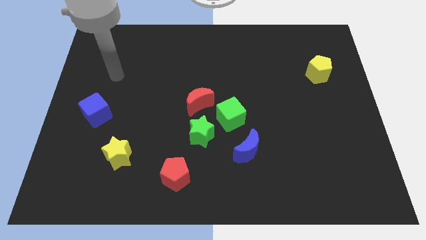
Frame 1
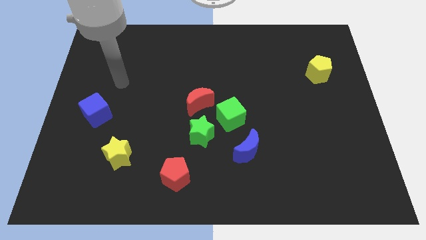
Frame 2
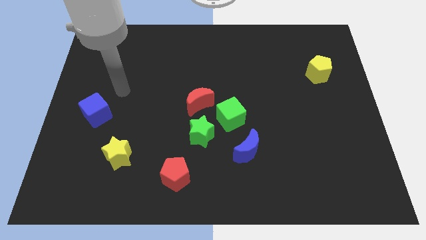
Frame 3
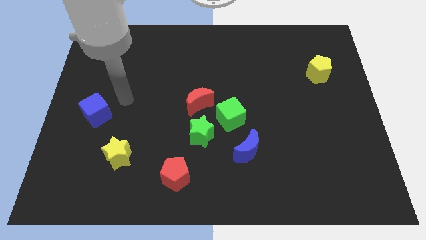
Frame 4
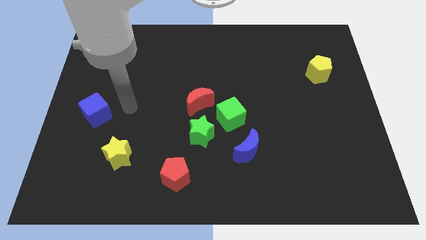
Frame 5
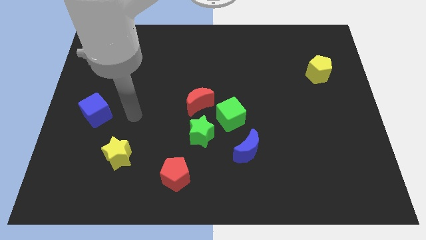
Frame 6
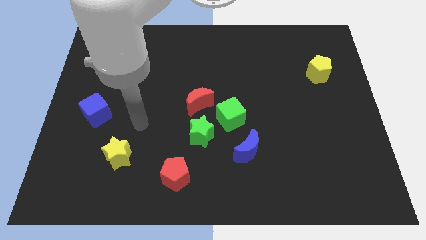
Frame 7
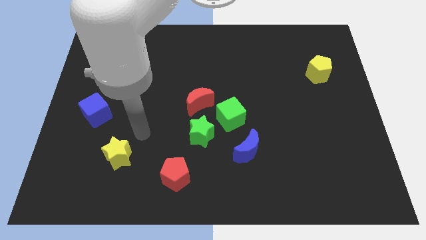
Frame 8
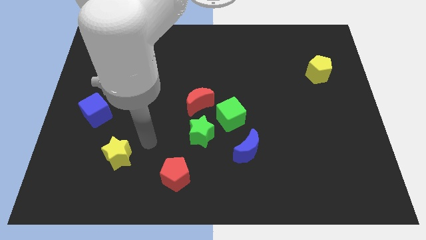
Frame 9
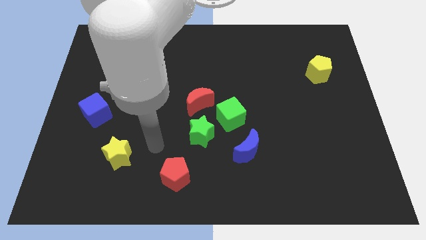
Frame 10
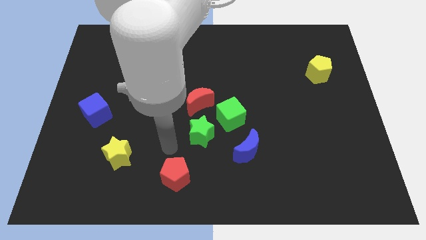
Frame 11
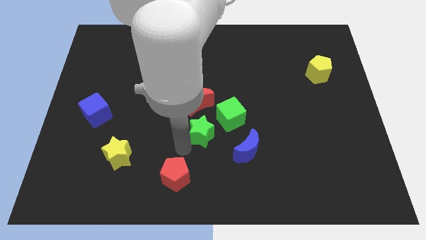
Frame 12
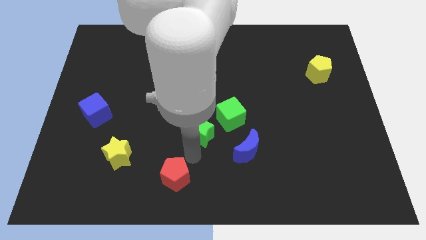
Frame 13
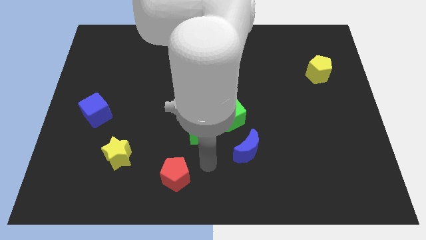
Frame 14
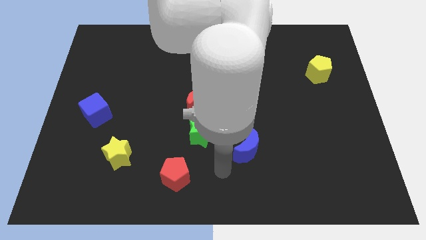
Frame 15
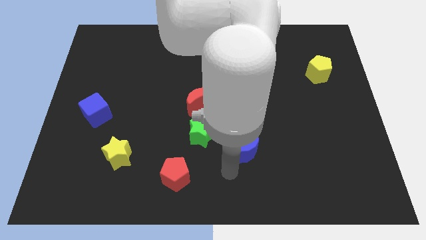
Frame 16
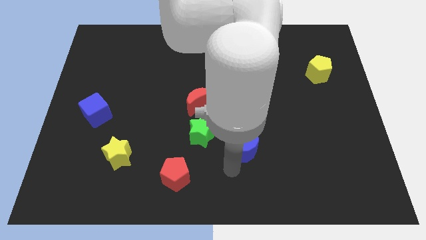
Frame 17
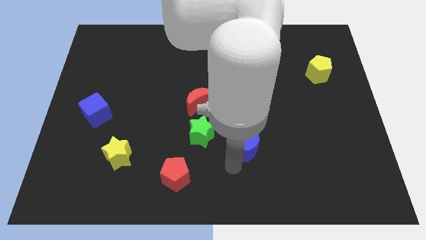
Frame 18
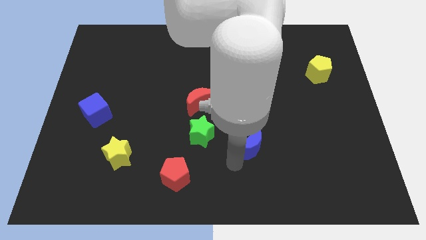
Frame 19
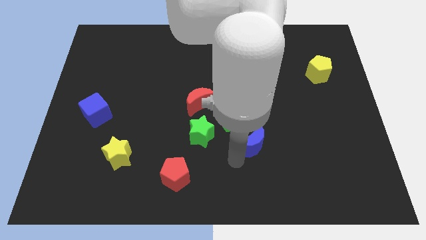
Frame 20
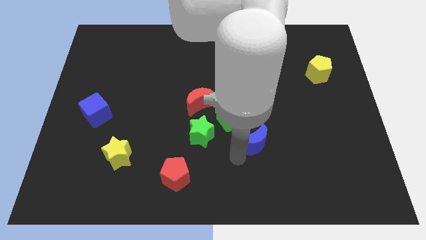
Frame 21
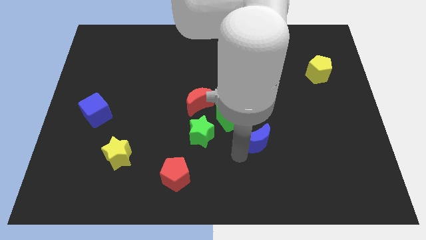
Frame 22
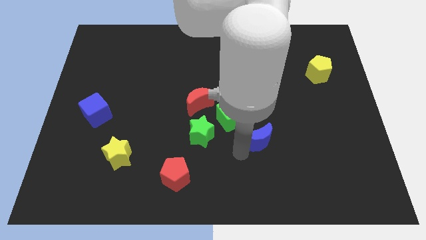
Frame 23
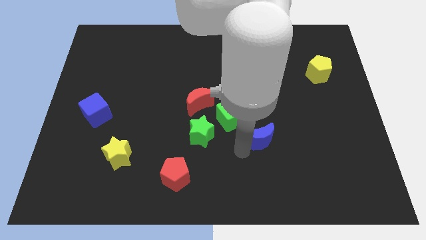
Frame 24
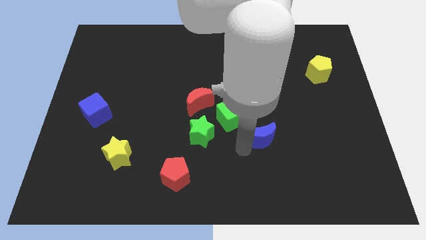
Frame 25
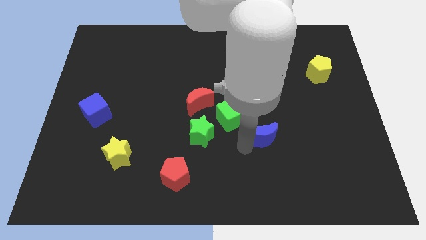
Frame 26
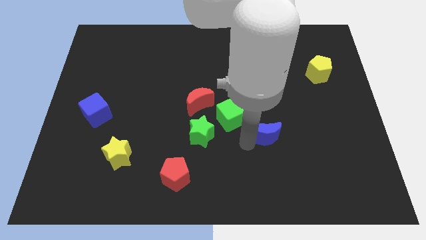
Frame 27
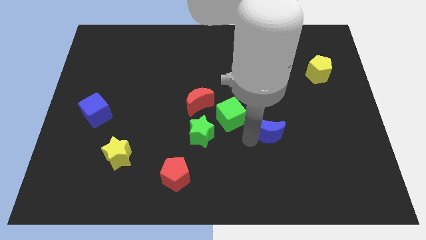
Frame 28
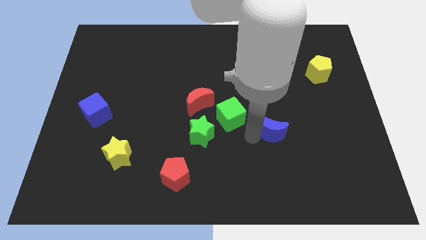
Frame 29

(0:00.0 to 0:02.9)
slide the blue moon a little bit up and to the right diagonally

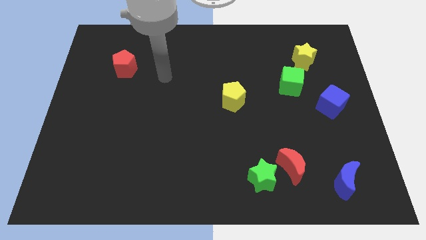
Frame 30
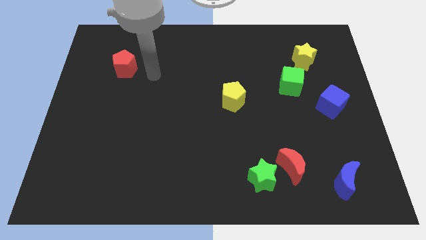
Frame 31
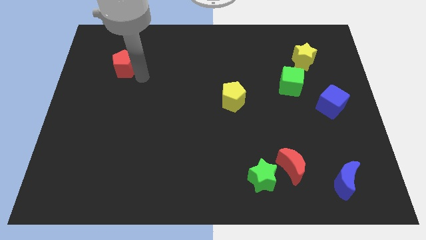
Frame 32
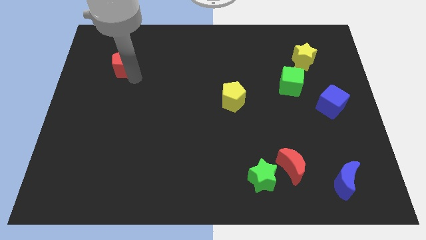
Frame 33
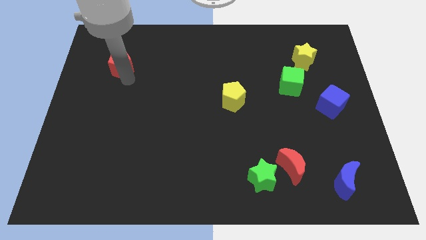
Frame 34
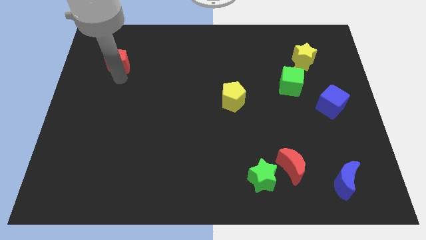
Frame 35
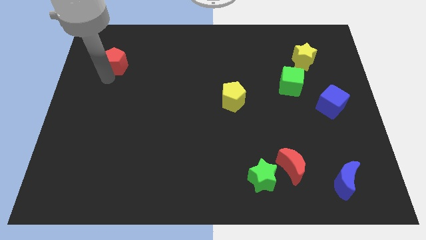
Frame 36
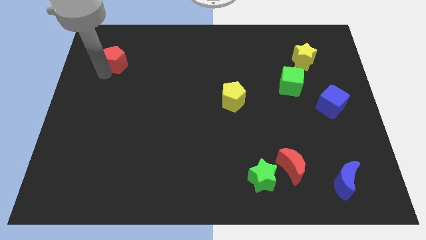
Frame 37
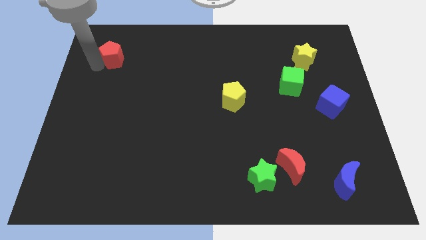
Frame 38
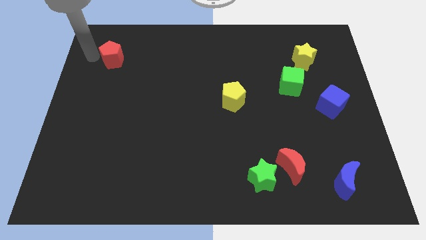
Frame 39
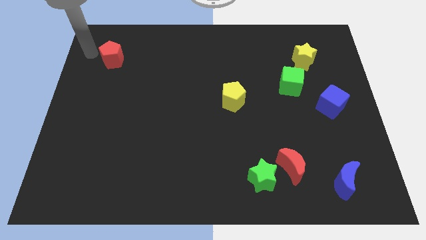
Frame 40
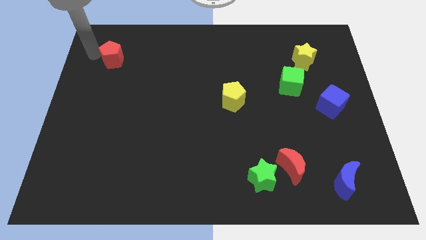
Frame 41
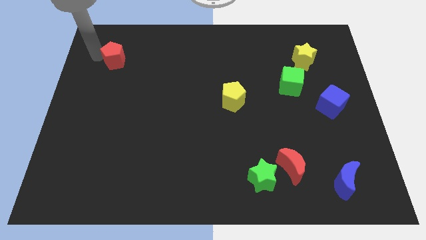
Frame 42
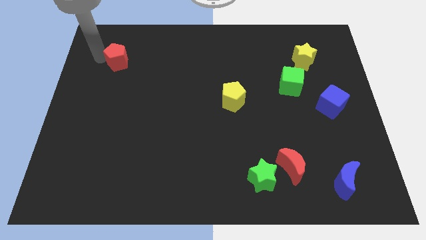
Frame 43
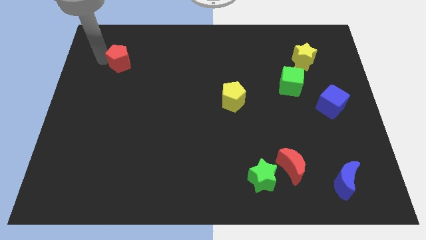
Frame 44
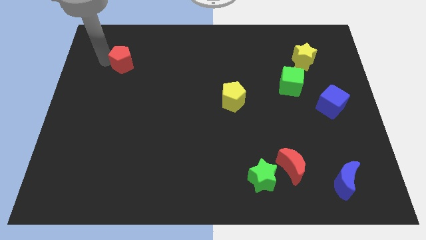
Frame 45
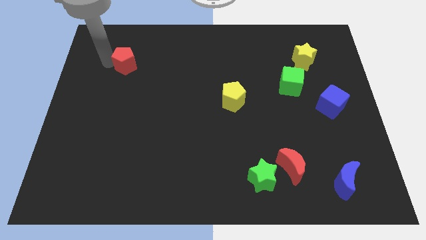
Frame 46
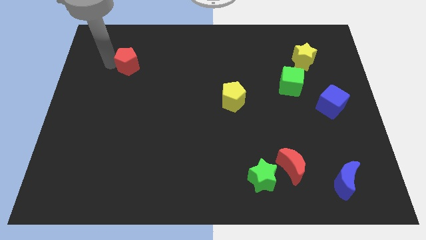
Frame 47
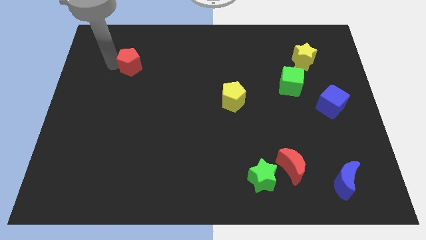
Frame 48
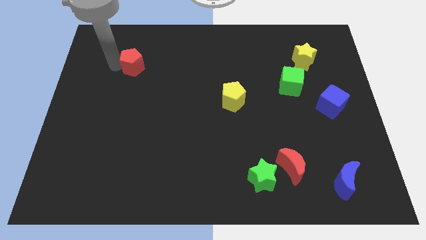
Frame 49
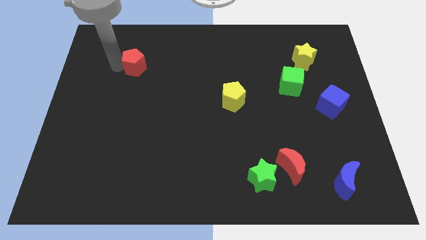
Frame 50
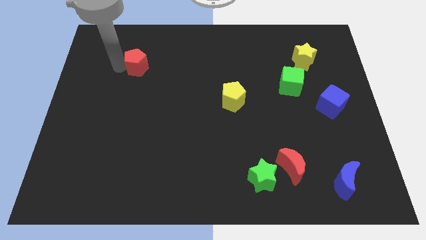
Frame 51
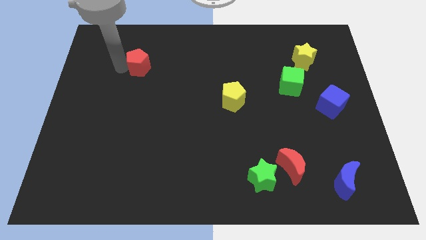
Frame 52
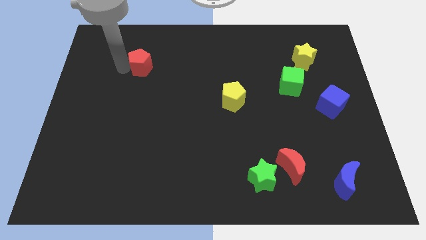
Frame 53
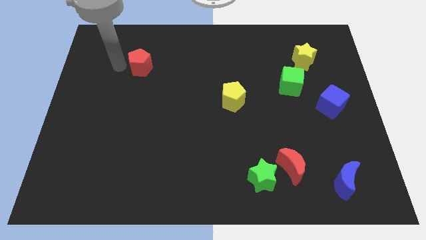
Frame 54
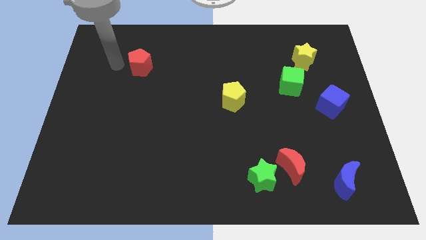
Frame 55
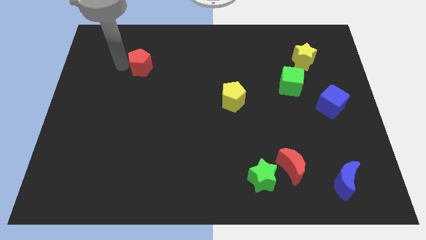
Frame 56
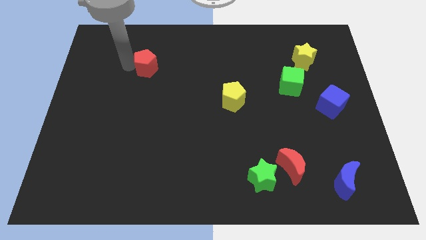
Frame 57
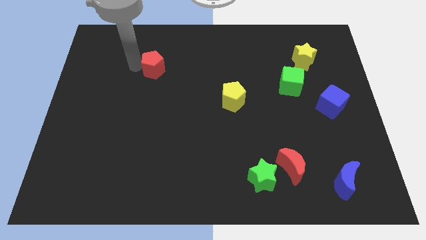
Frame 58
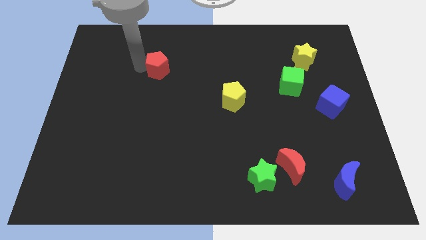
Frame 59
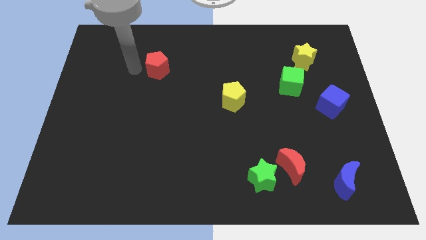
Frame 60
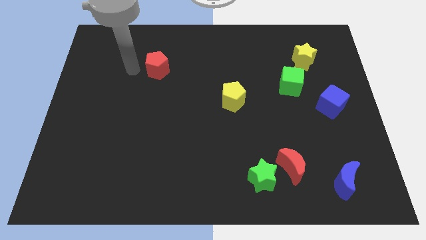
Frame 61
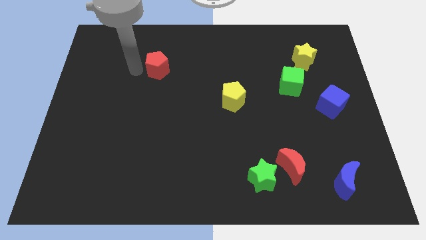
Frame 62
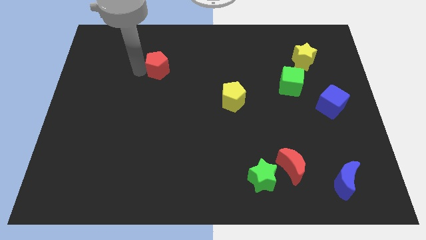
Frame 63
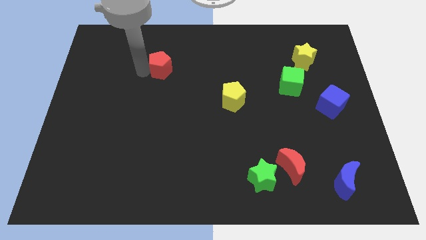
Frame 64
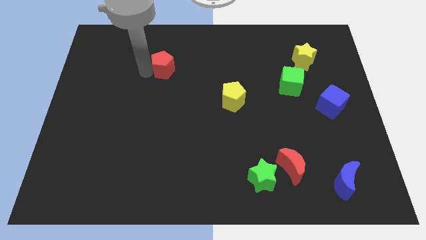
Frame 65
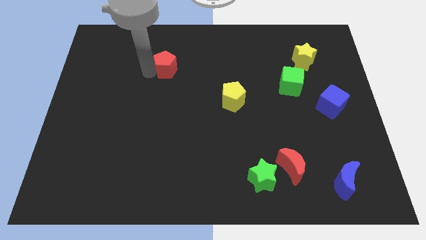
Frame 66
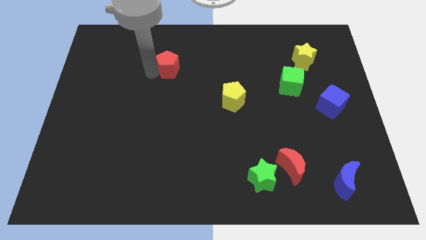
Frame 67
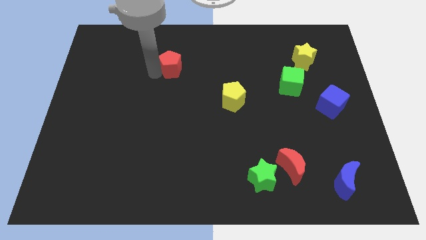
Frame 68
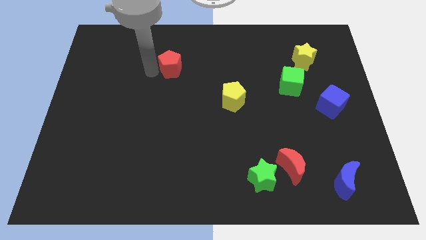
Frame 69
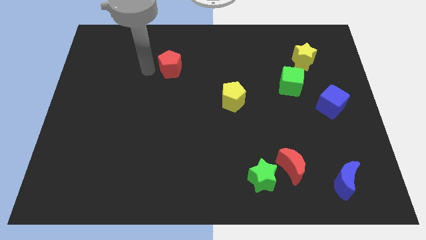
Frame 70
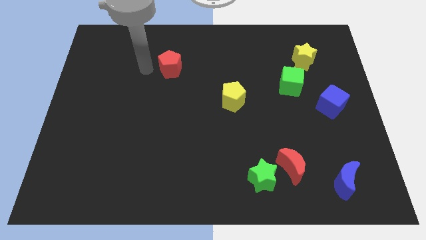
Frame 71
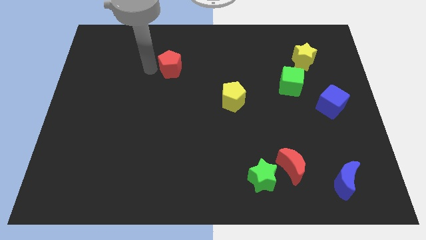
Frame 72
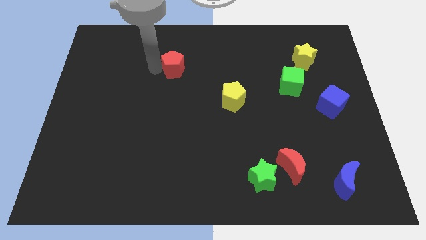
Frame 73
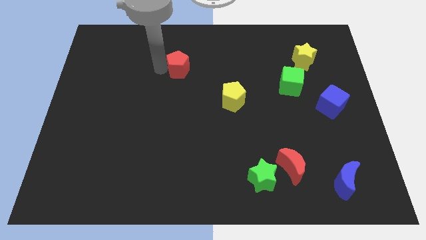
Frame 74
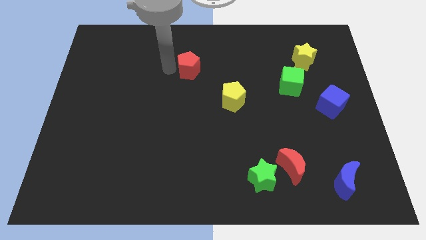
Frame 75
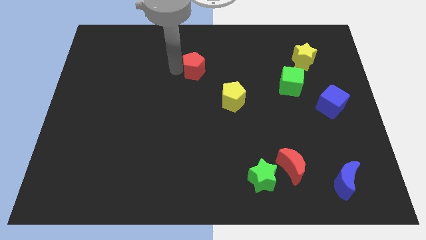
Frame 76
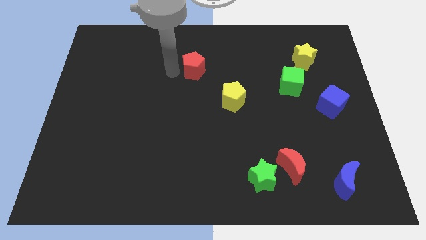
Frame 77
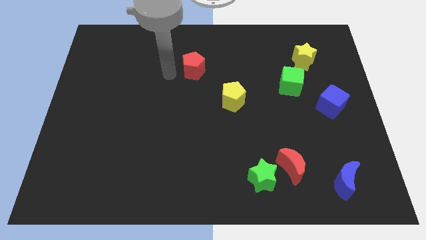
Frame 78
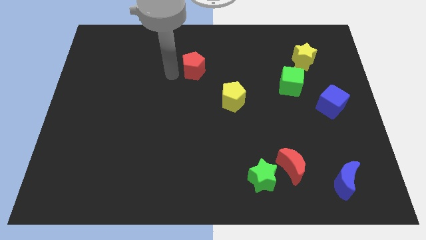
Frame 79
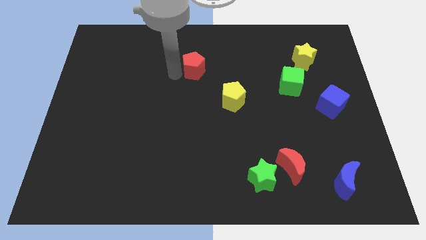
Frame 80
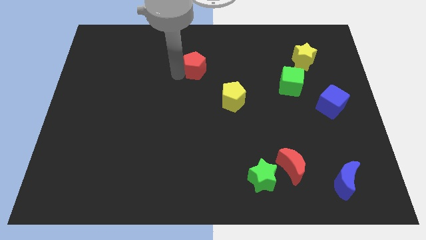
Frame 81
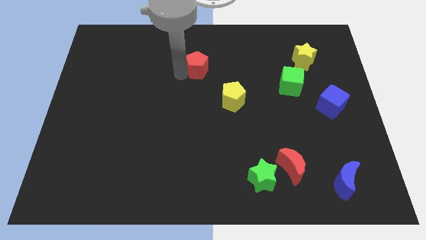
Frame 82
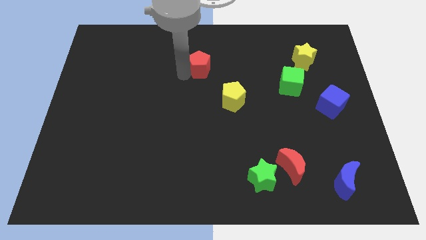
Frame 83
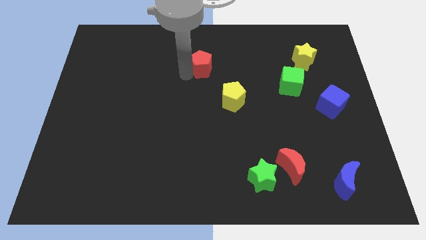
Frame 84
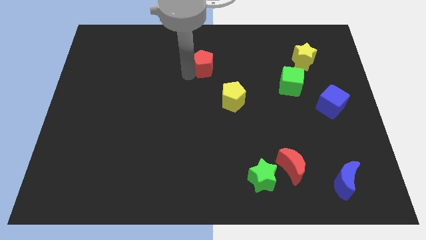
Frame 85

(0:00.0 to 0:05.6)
slide the red pentagon to the right
